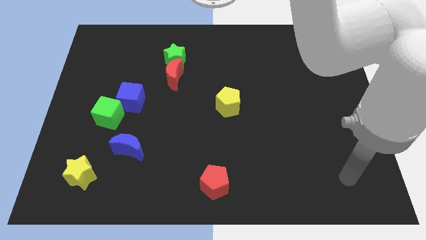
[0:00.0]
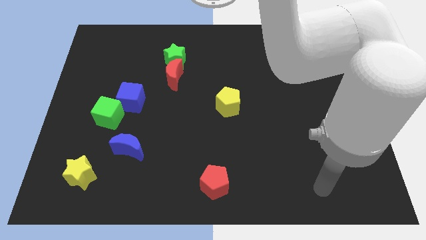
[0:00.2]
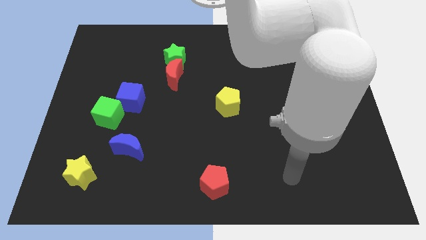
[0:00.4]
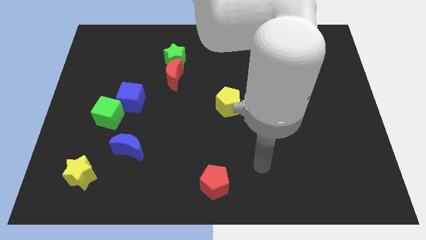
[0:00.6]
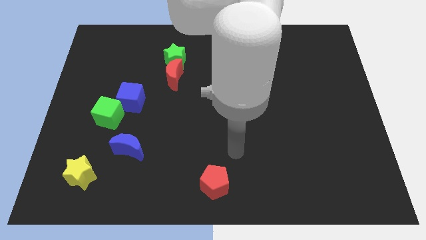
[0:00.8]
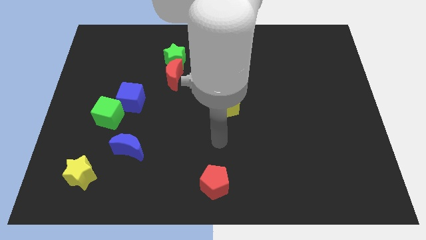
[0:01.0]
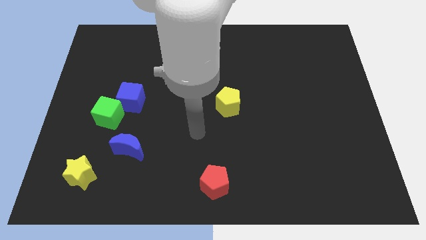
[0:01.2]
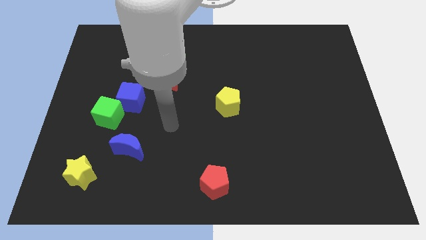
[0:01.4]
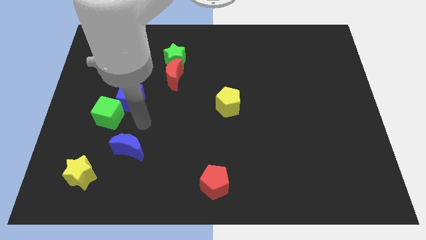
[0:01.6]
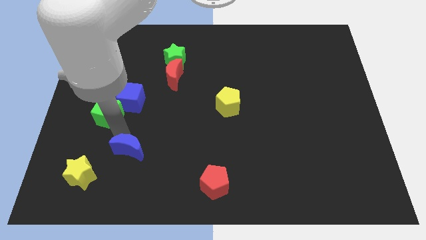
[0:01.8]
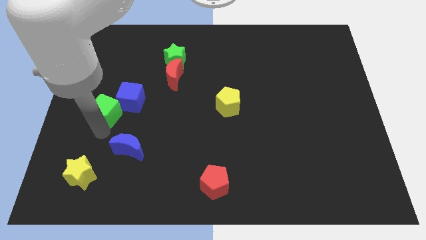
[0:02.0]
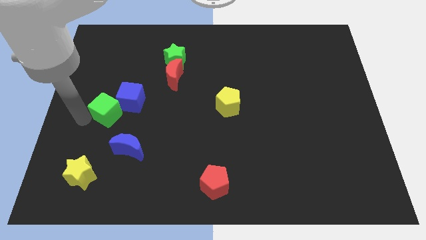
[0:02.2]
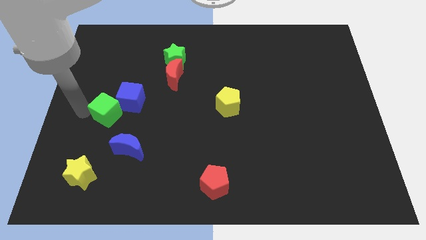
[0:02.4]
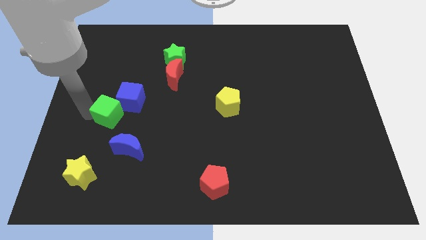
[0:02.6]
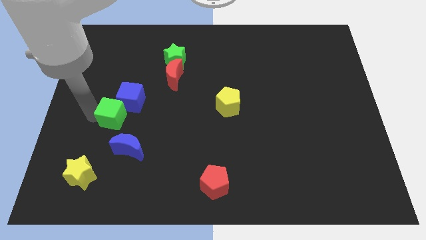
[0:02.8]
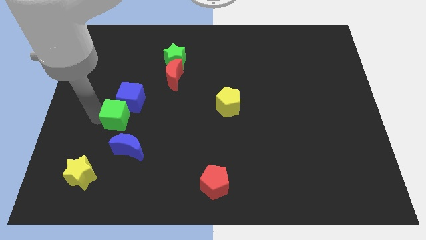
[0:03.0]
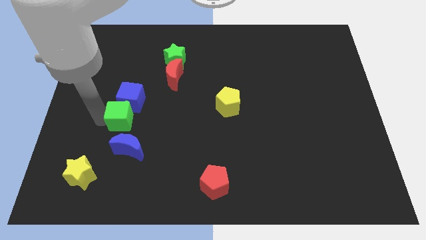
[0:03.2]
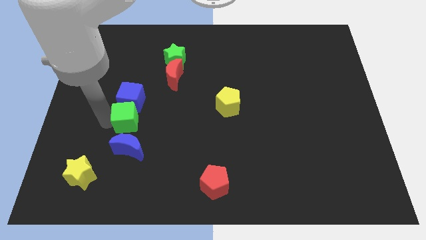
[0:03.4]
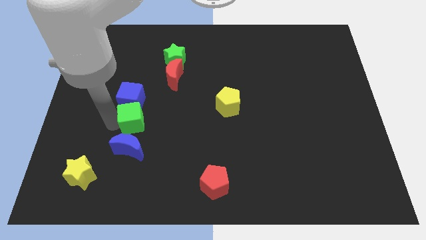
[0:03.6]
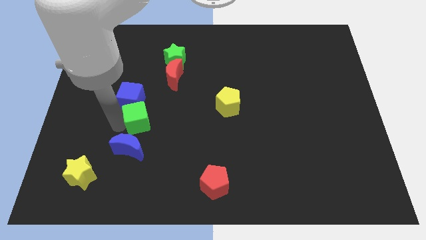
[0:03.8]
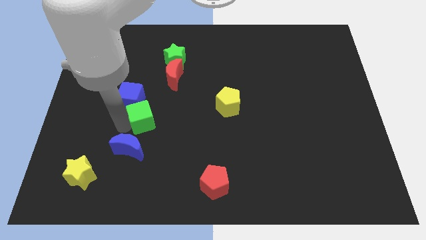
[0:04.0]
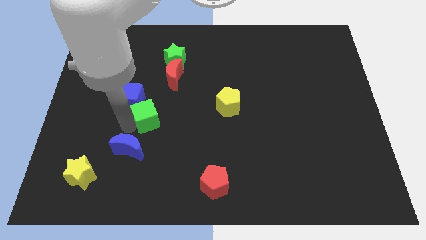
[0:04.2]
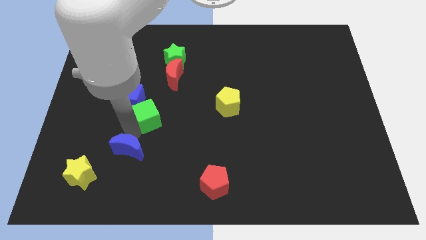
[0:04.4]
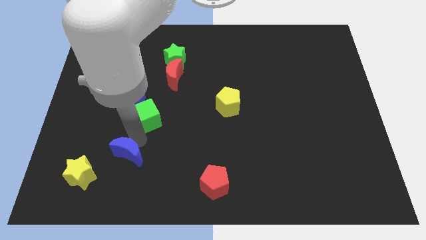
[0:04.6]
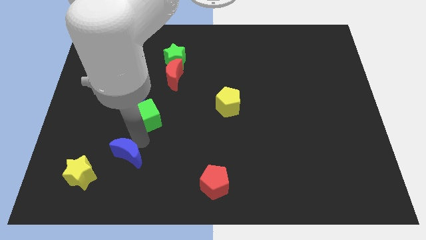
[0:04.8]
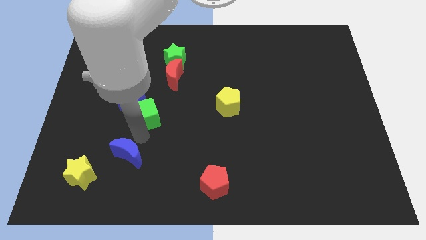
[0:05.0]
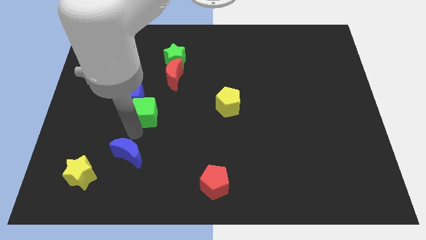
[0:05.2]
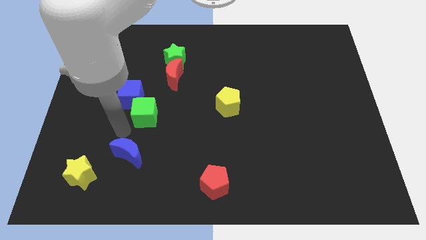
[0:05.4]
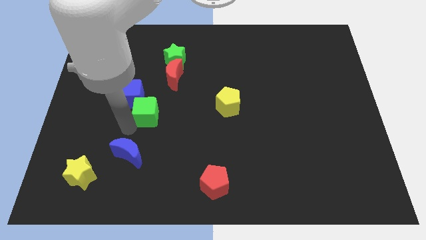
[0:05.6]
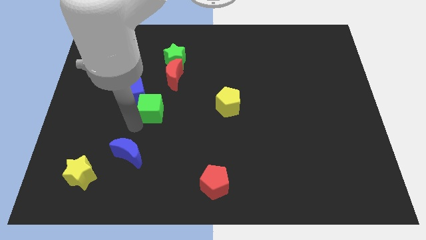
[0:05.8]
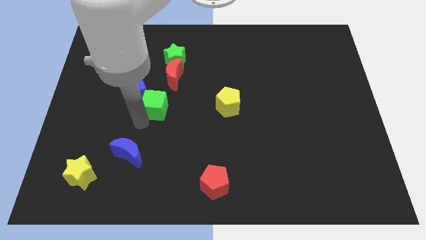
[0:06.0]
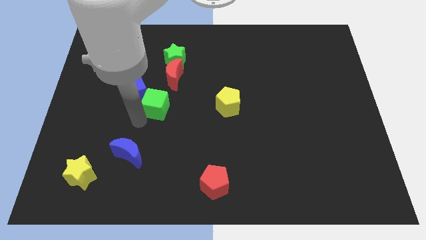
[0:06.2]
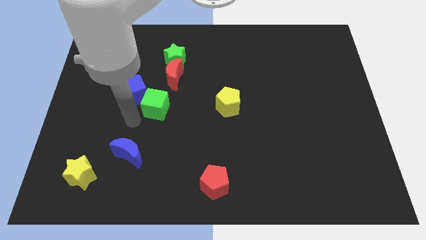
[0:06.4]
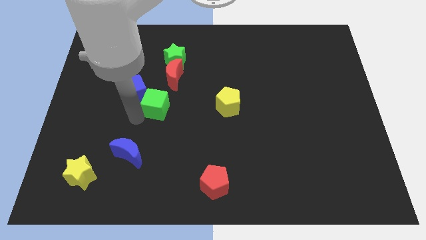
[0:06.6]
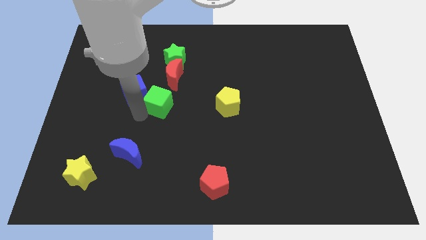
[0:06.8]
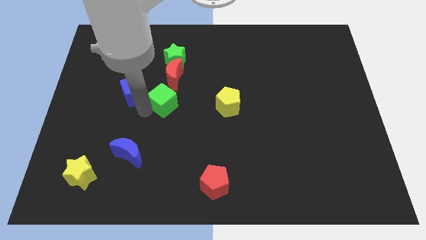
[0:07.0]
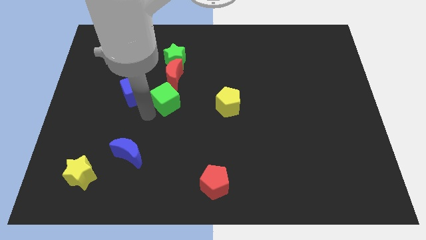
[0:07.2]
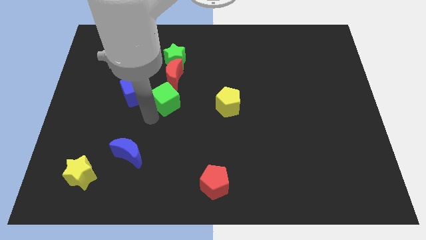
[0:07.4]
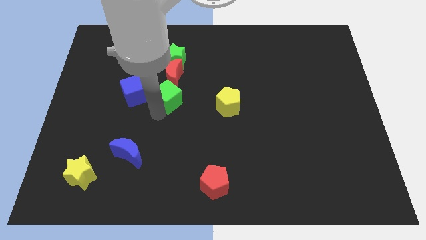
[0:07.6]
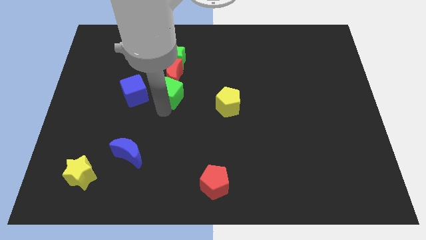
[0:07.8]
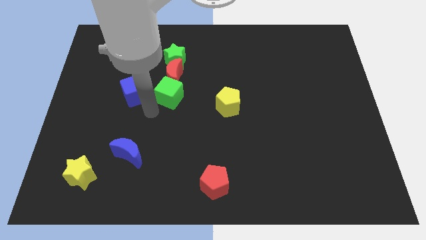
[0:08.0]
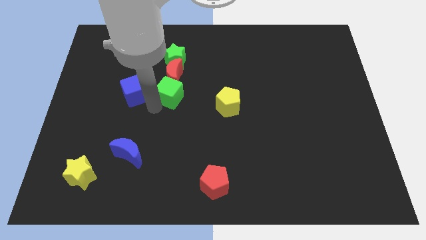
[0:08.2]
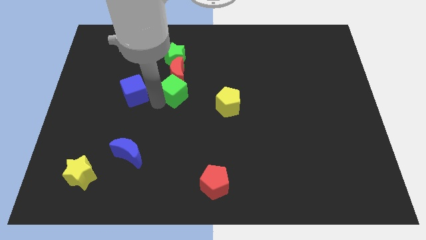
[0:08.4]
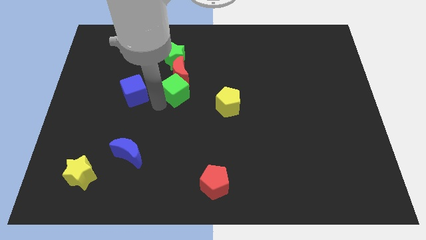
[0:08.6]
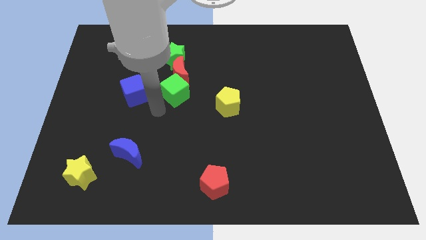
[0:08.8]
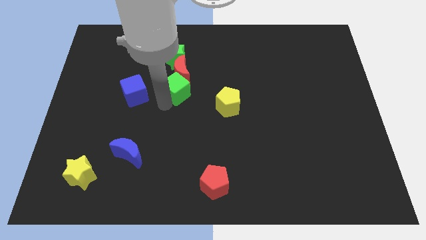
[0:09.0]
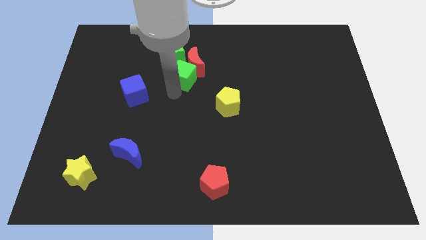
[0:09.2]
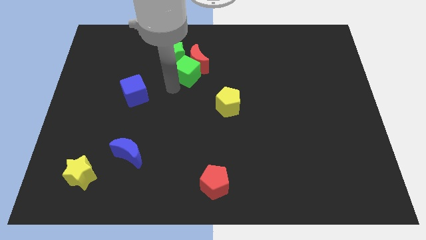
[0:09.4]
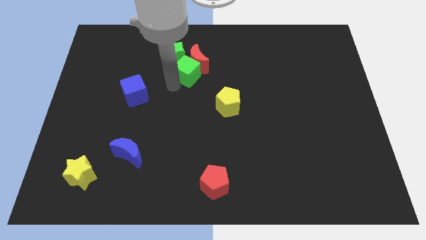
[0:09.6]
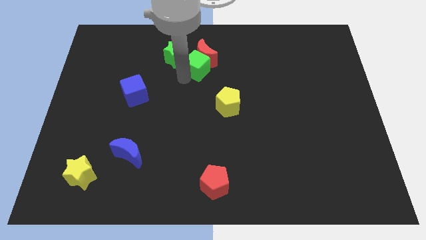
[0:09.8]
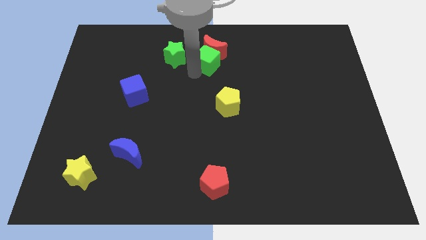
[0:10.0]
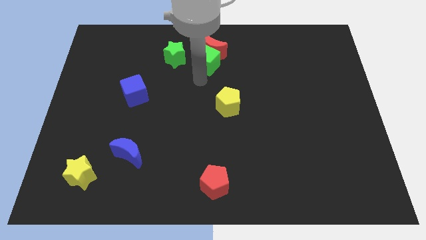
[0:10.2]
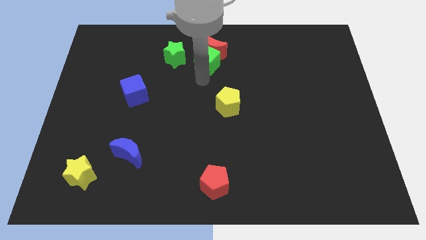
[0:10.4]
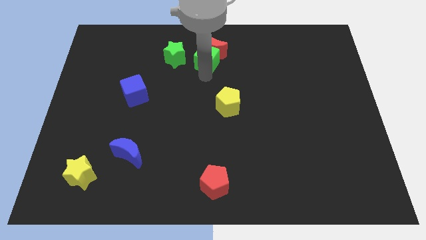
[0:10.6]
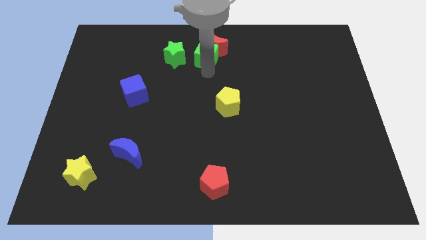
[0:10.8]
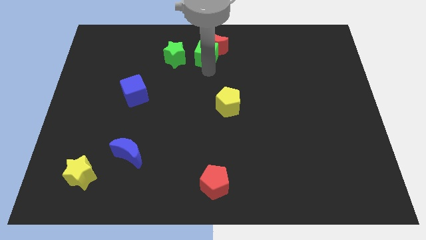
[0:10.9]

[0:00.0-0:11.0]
push the green cube to the towards your base

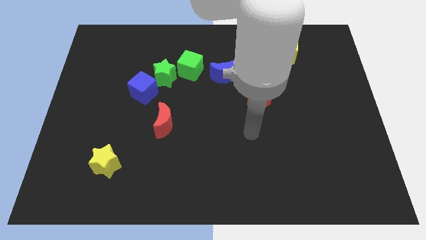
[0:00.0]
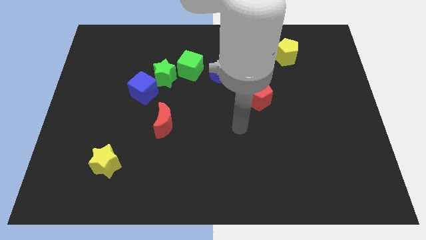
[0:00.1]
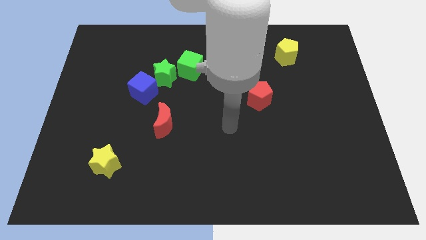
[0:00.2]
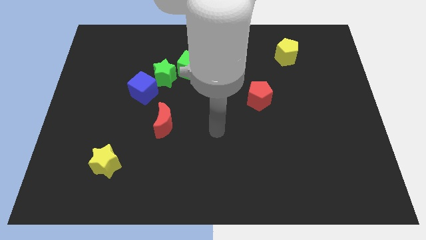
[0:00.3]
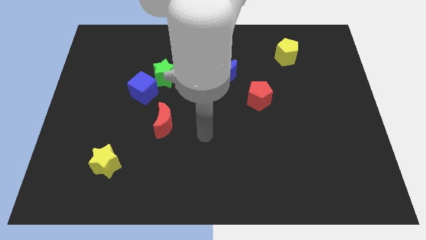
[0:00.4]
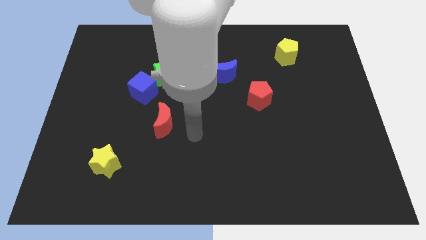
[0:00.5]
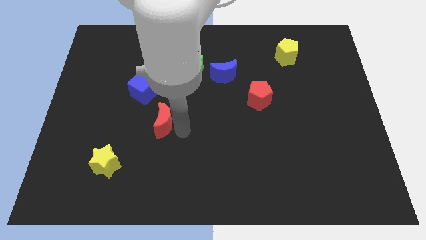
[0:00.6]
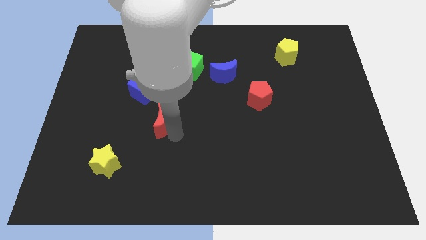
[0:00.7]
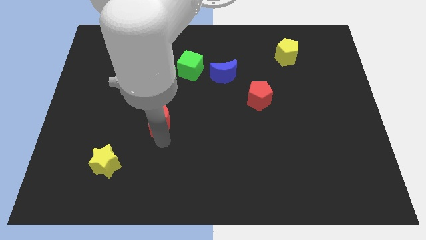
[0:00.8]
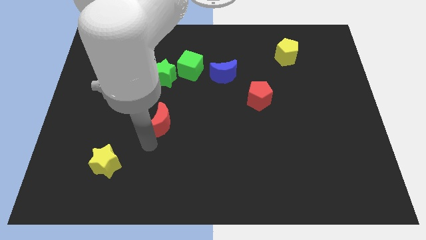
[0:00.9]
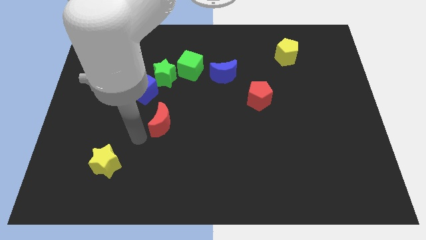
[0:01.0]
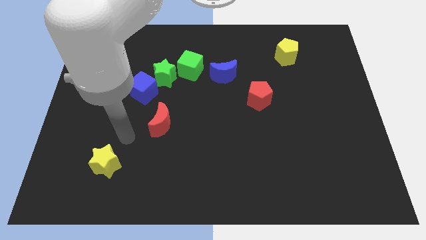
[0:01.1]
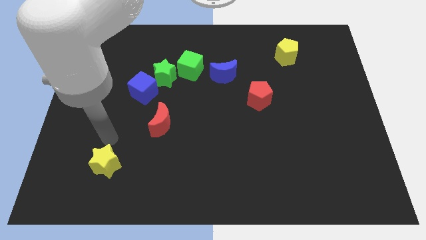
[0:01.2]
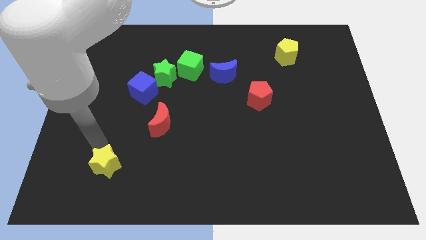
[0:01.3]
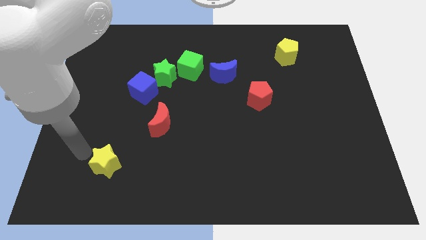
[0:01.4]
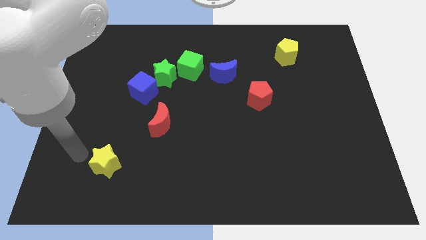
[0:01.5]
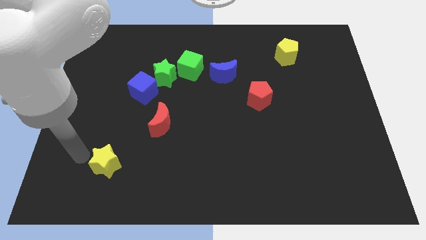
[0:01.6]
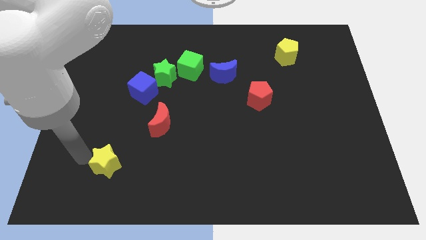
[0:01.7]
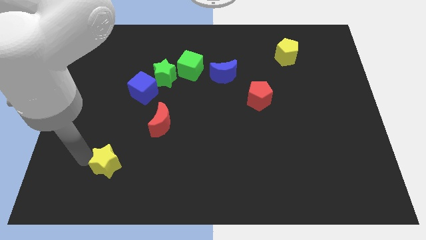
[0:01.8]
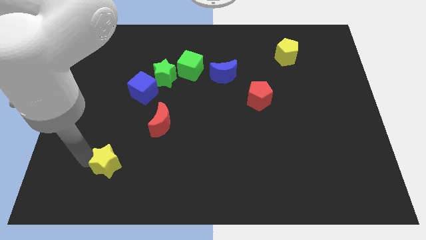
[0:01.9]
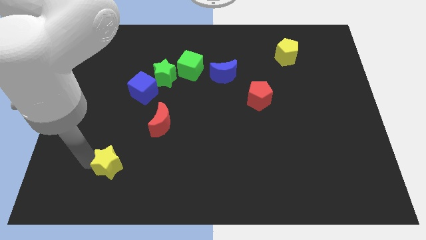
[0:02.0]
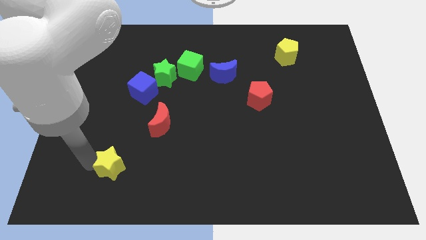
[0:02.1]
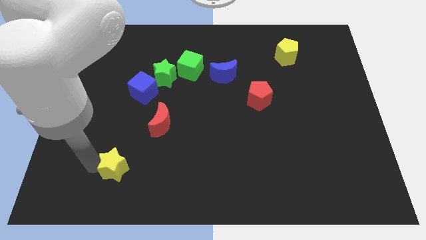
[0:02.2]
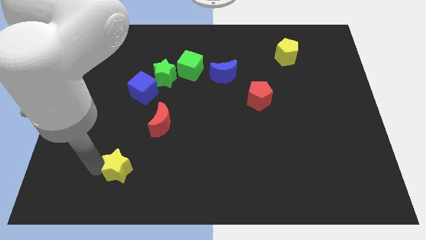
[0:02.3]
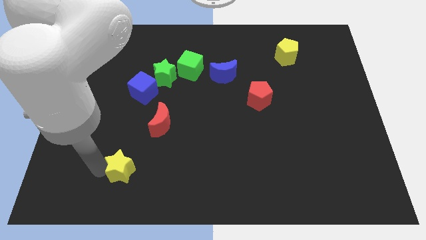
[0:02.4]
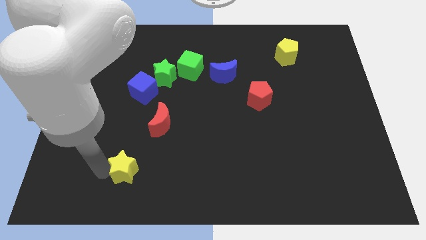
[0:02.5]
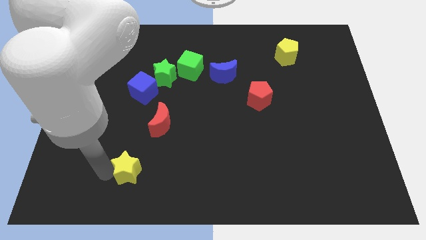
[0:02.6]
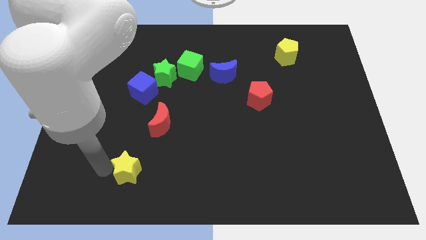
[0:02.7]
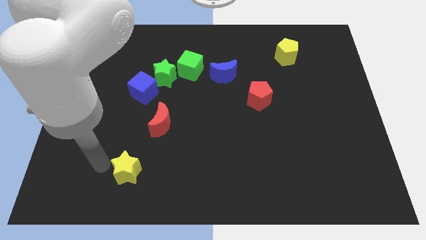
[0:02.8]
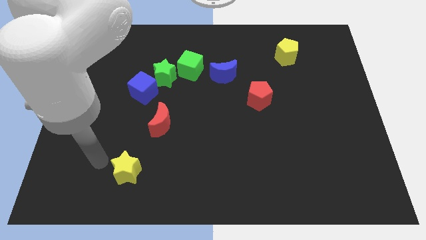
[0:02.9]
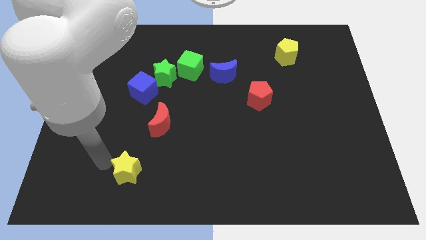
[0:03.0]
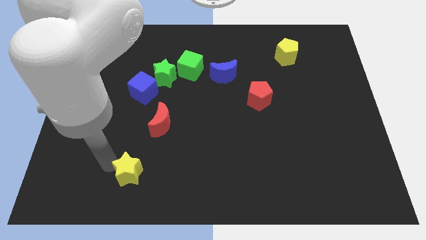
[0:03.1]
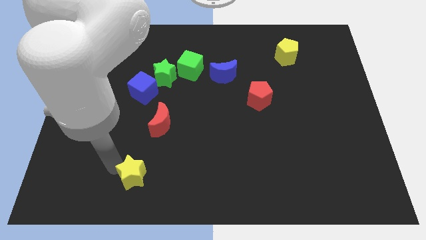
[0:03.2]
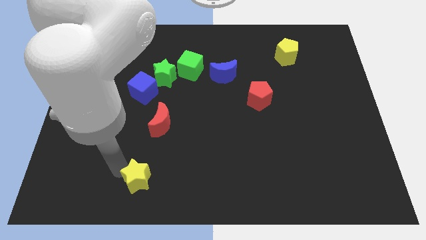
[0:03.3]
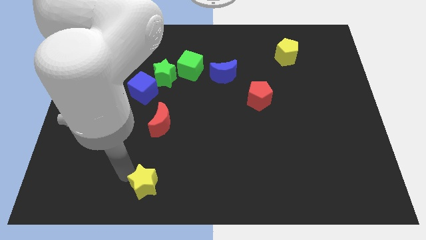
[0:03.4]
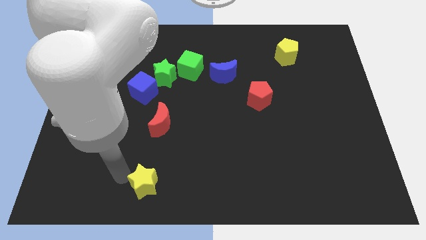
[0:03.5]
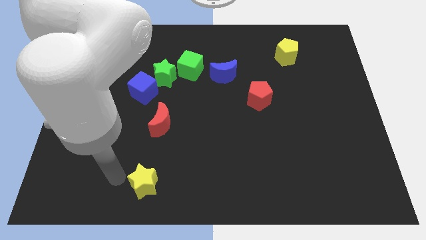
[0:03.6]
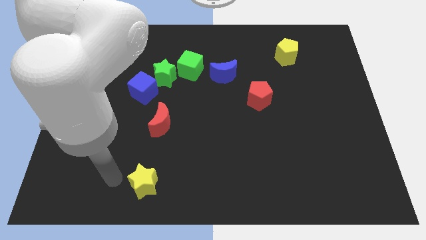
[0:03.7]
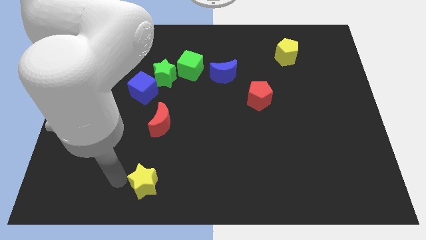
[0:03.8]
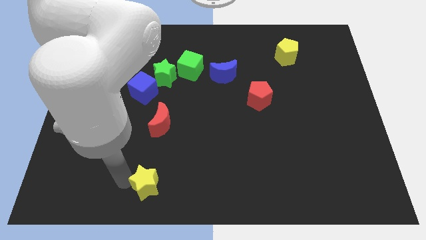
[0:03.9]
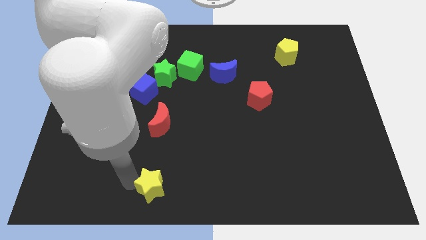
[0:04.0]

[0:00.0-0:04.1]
slide the yellow star to the bottom
